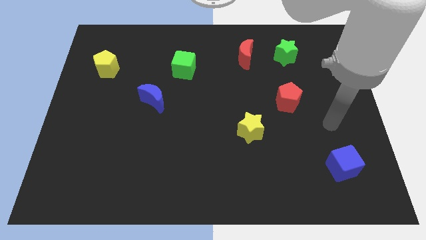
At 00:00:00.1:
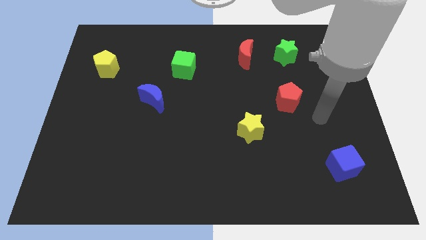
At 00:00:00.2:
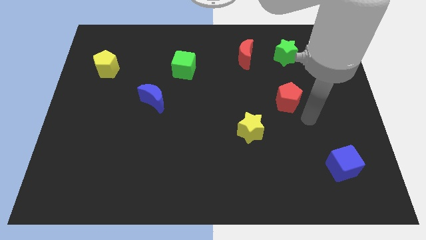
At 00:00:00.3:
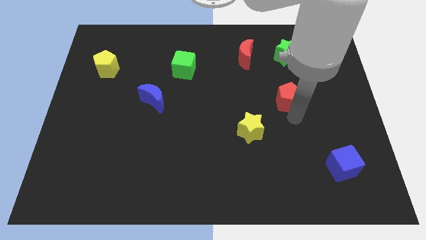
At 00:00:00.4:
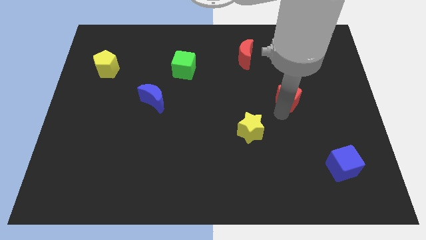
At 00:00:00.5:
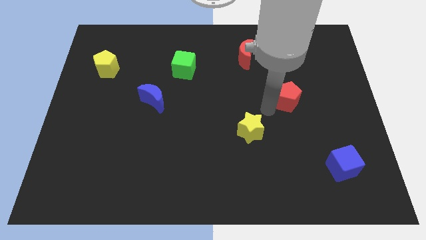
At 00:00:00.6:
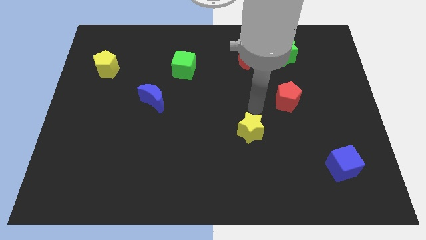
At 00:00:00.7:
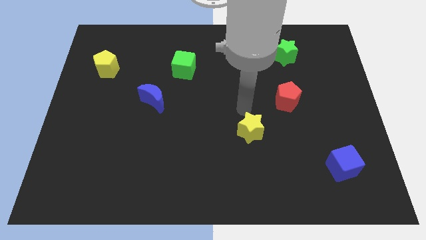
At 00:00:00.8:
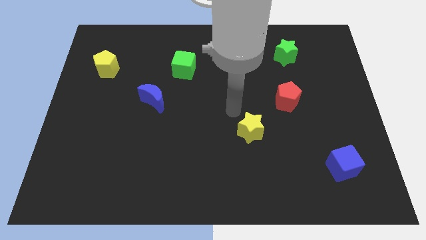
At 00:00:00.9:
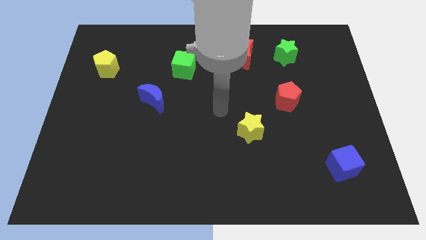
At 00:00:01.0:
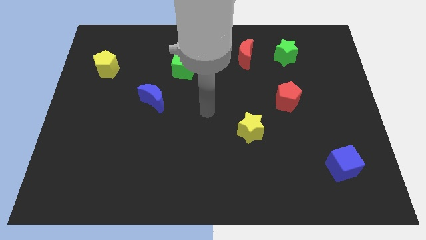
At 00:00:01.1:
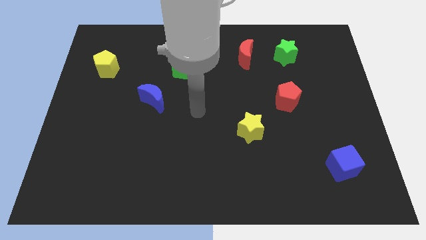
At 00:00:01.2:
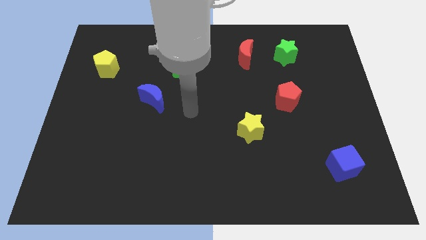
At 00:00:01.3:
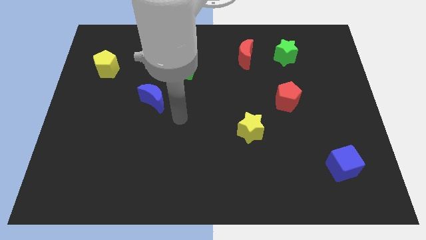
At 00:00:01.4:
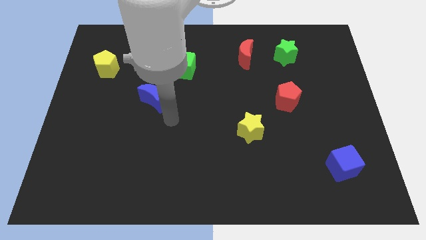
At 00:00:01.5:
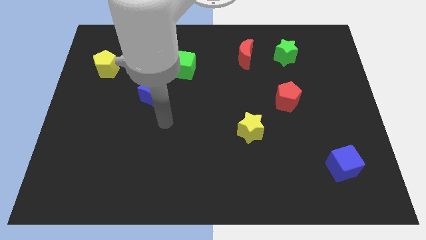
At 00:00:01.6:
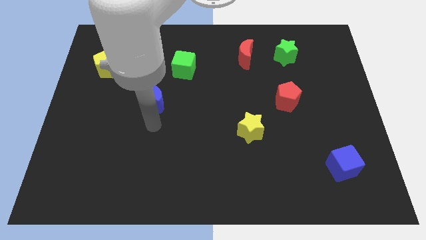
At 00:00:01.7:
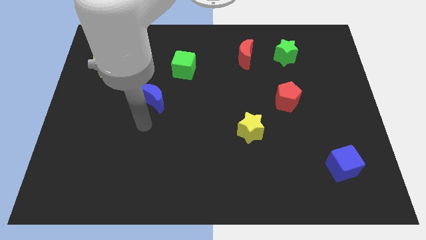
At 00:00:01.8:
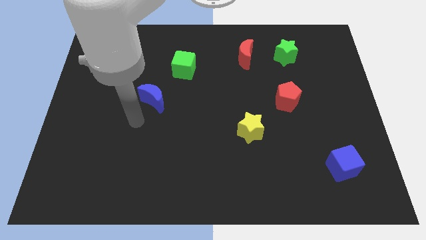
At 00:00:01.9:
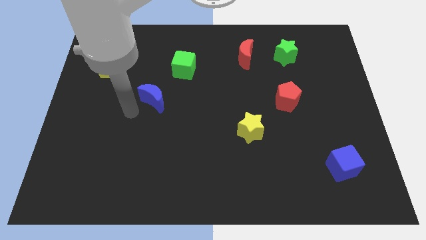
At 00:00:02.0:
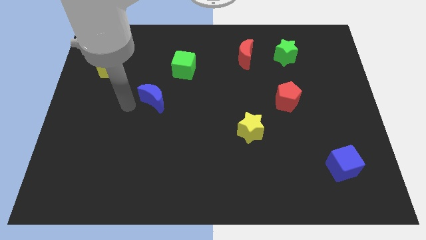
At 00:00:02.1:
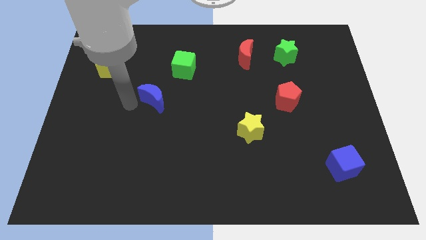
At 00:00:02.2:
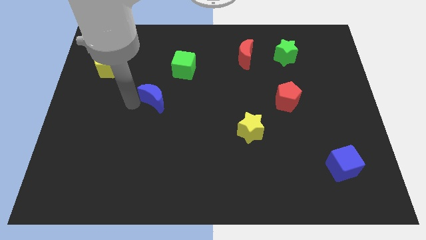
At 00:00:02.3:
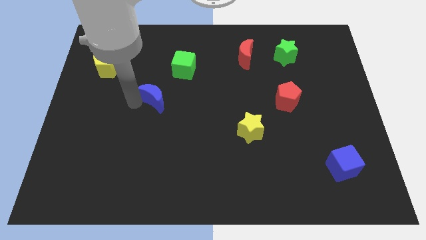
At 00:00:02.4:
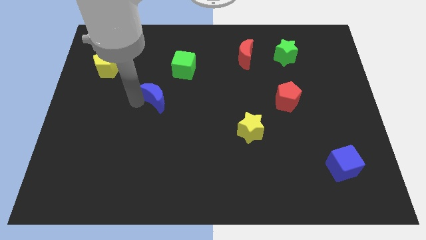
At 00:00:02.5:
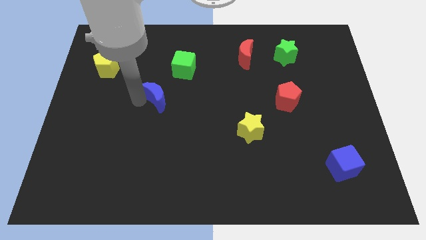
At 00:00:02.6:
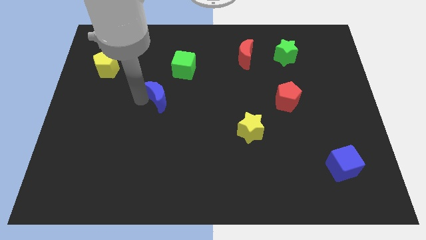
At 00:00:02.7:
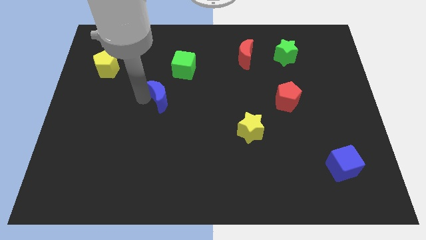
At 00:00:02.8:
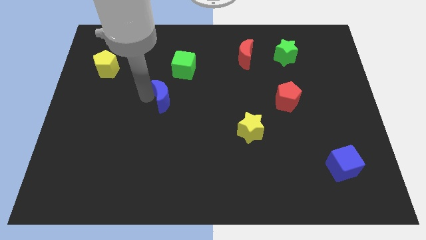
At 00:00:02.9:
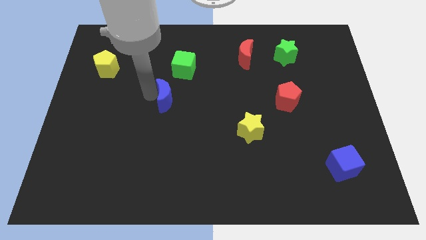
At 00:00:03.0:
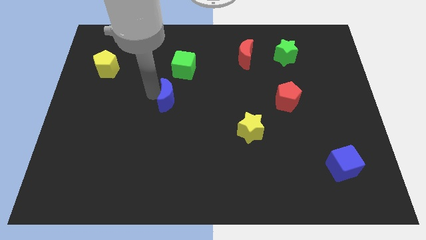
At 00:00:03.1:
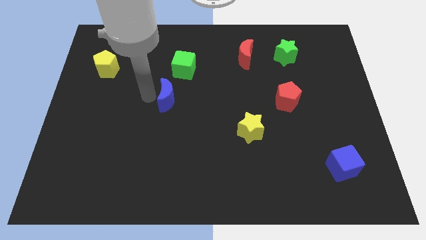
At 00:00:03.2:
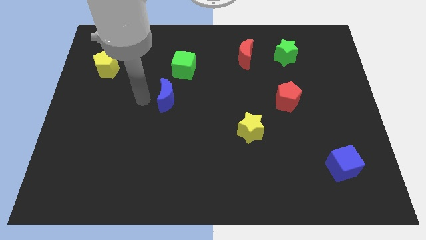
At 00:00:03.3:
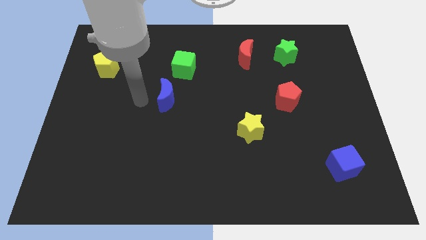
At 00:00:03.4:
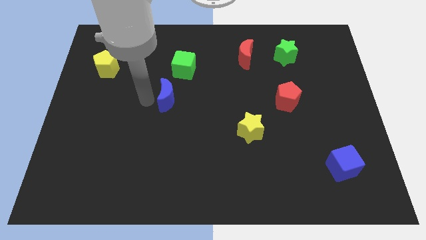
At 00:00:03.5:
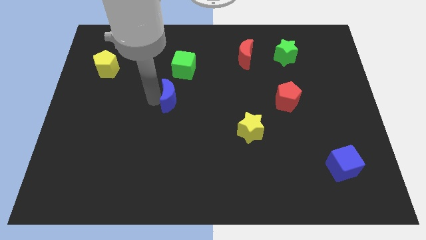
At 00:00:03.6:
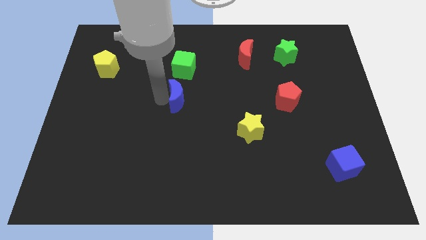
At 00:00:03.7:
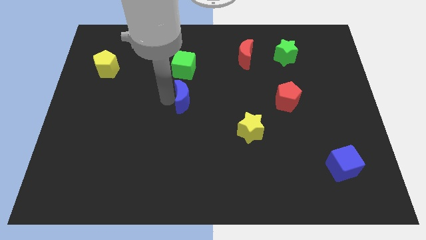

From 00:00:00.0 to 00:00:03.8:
slide the blue moon right slightly

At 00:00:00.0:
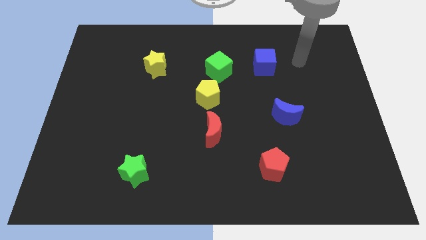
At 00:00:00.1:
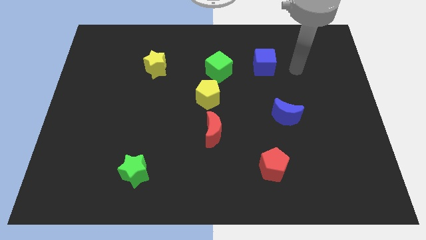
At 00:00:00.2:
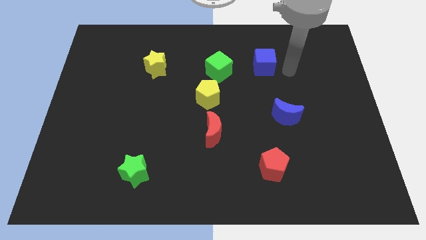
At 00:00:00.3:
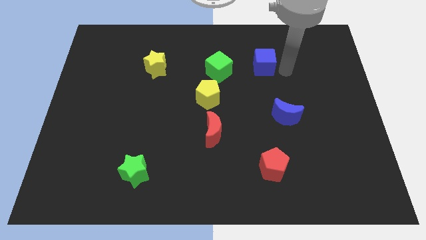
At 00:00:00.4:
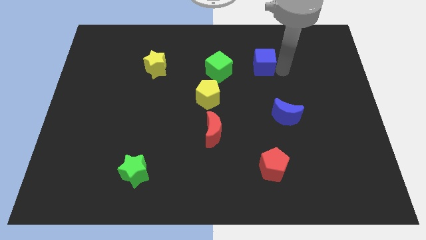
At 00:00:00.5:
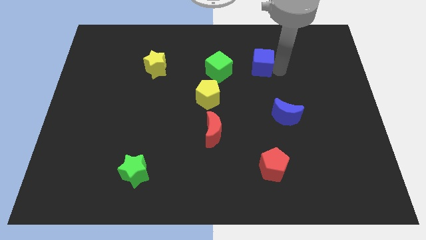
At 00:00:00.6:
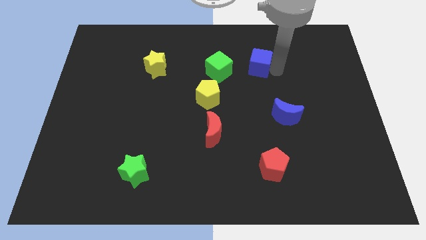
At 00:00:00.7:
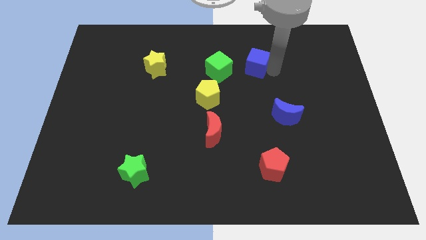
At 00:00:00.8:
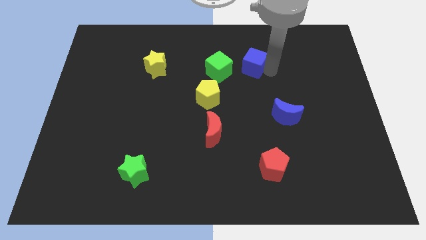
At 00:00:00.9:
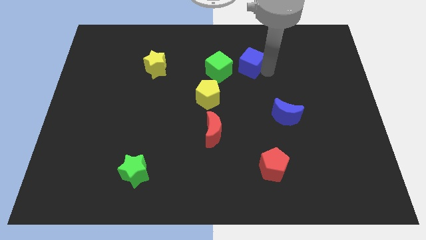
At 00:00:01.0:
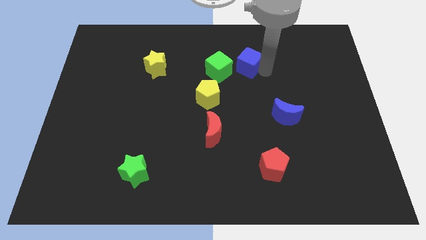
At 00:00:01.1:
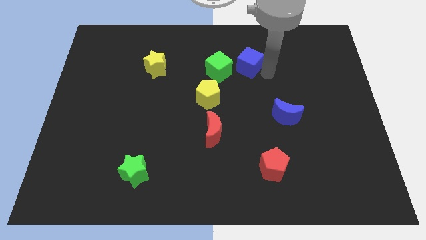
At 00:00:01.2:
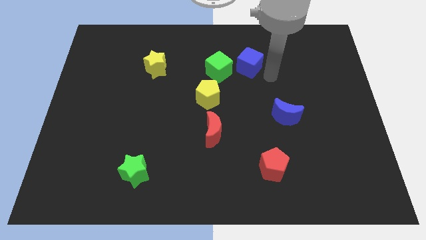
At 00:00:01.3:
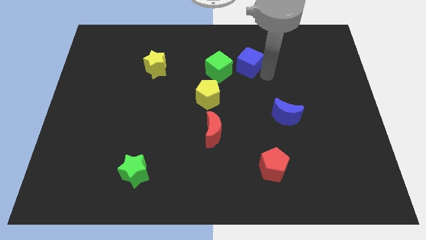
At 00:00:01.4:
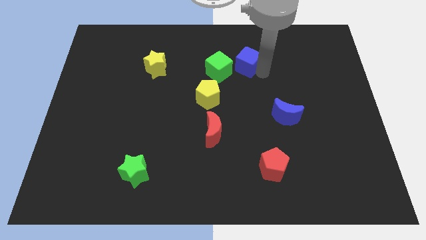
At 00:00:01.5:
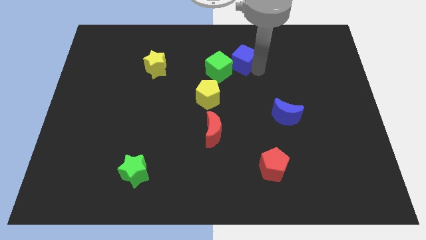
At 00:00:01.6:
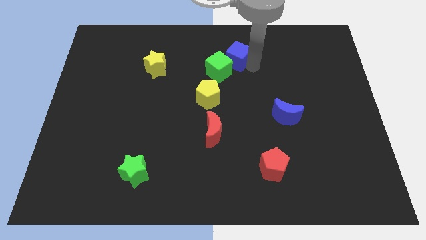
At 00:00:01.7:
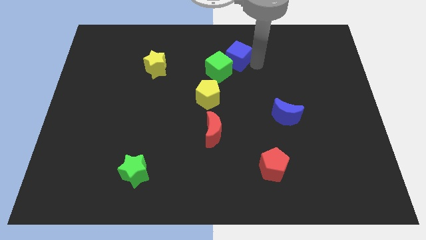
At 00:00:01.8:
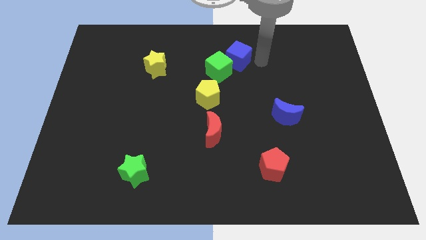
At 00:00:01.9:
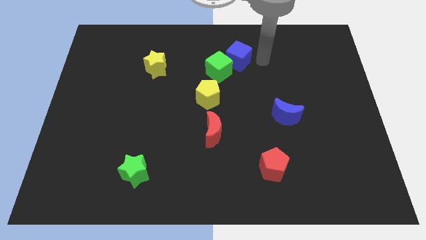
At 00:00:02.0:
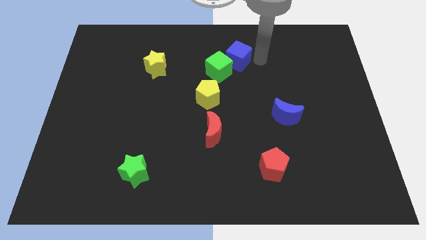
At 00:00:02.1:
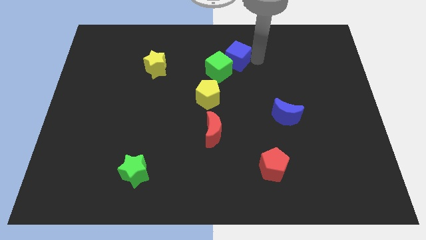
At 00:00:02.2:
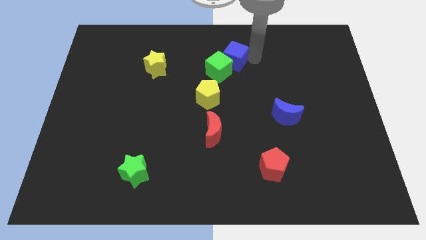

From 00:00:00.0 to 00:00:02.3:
slightly slide the blue cube left

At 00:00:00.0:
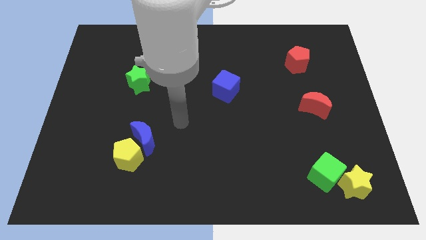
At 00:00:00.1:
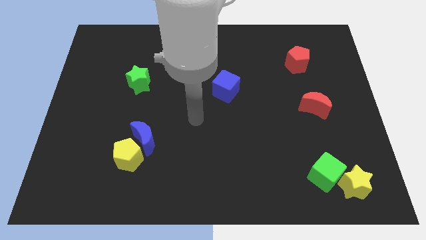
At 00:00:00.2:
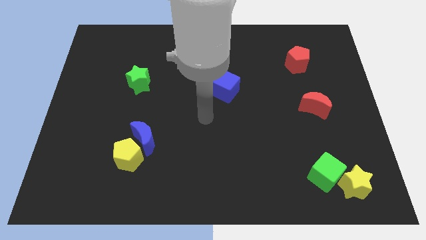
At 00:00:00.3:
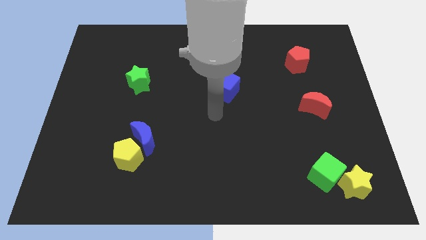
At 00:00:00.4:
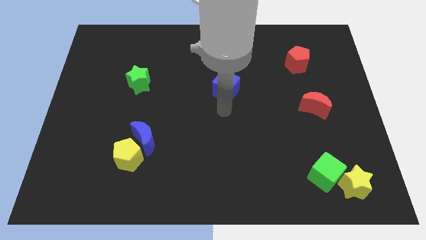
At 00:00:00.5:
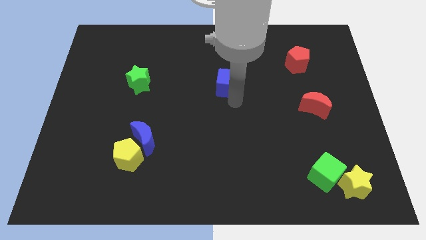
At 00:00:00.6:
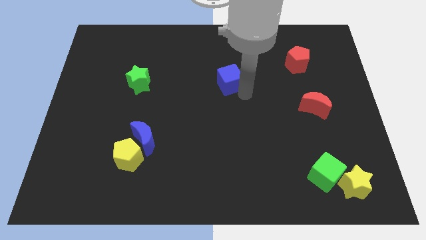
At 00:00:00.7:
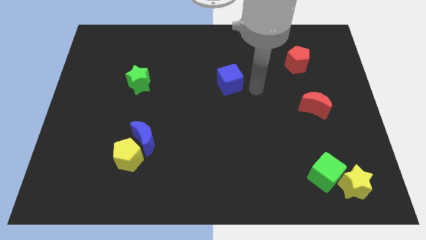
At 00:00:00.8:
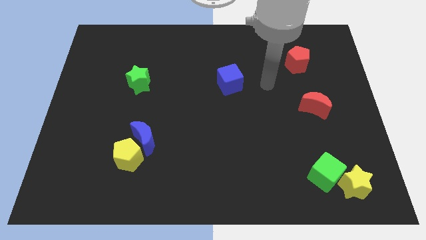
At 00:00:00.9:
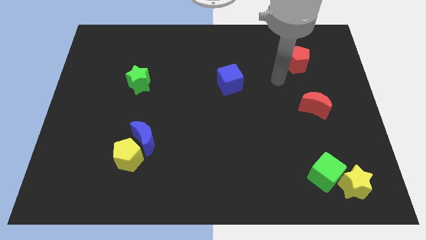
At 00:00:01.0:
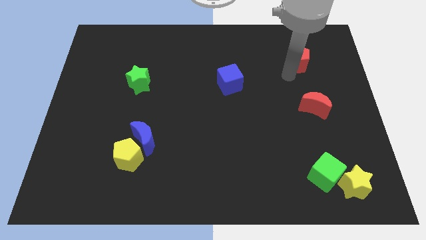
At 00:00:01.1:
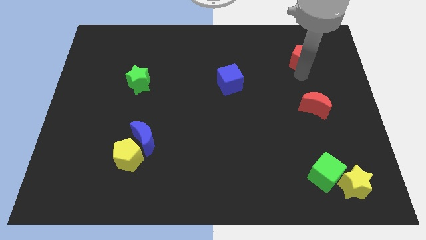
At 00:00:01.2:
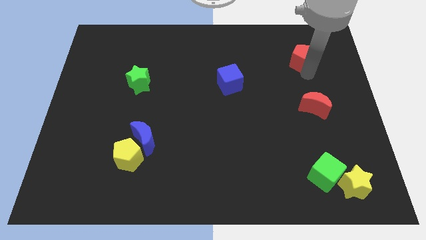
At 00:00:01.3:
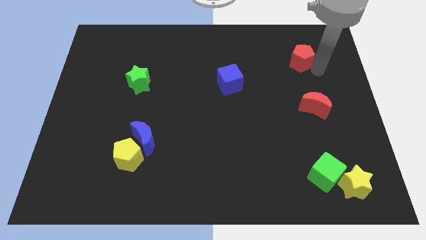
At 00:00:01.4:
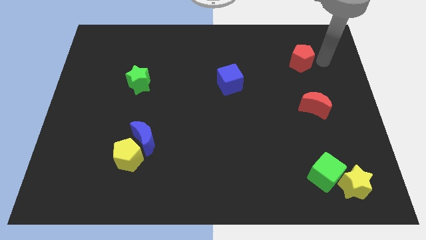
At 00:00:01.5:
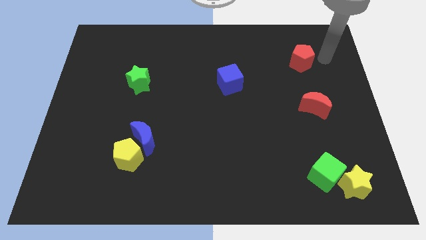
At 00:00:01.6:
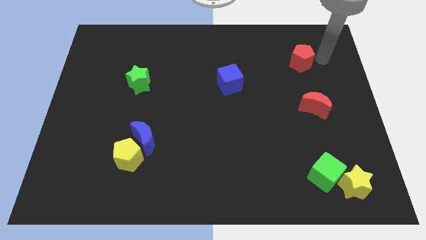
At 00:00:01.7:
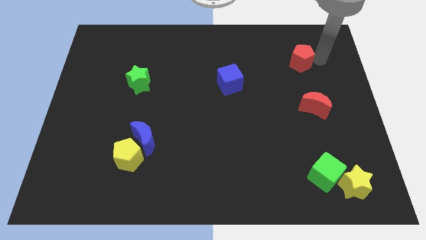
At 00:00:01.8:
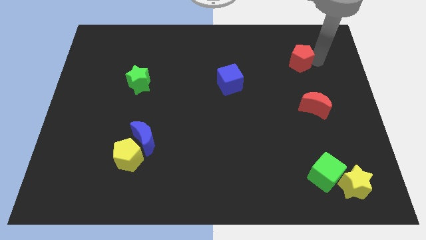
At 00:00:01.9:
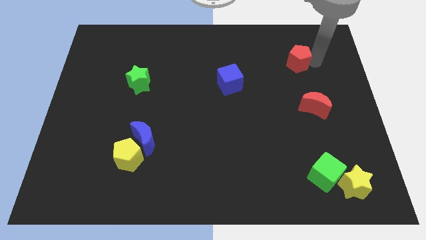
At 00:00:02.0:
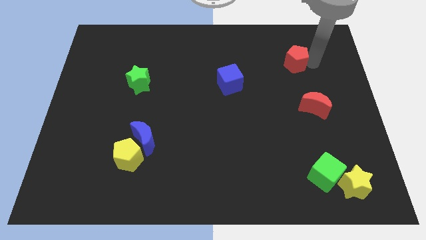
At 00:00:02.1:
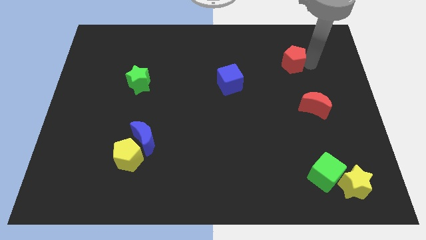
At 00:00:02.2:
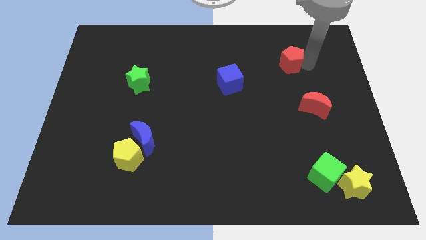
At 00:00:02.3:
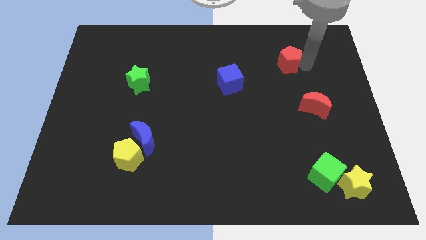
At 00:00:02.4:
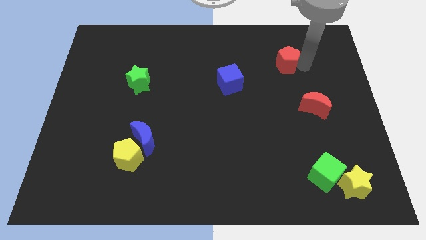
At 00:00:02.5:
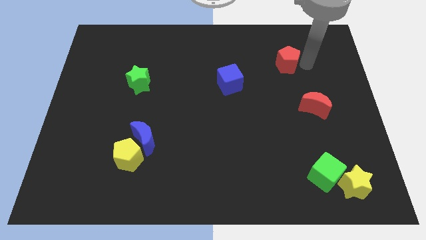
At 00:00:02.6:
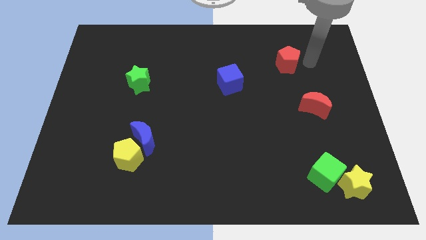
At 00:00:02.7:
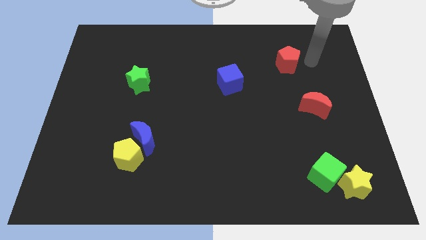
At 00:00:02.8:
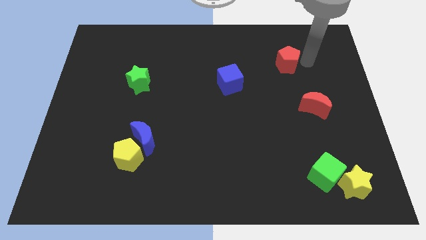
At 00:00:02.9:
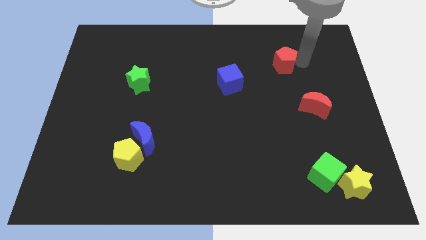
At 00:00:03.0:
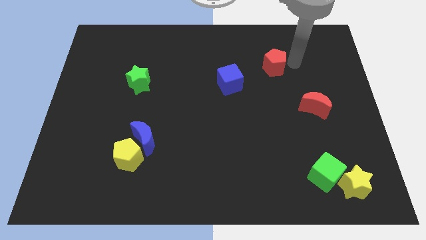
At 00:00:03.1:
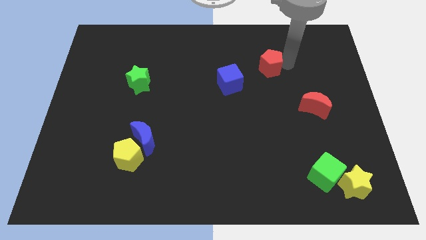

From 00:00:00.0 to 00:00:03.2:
push the red pentagon slightly to the left
